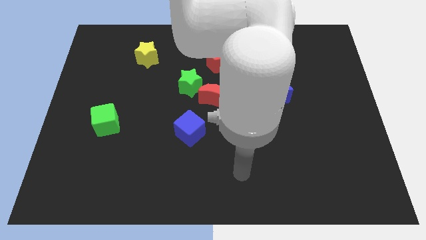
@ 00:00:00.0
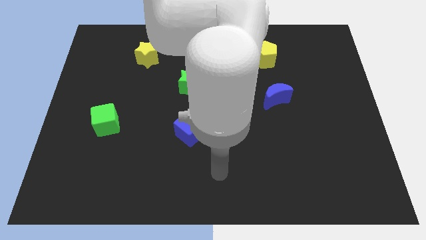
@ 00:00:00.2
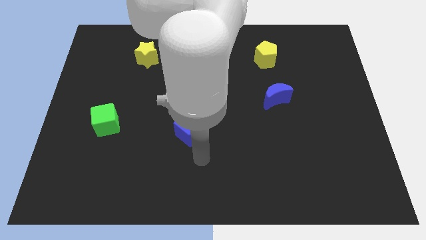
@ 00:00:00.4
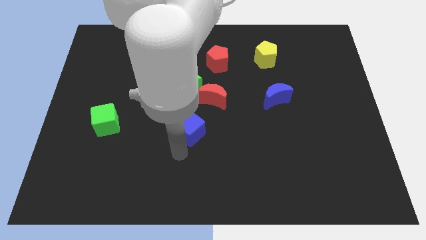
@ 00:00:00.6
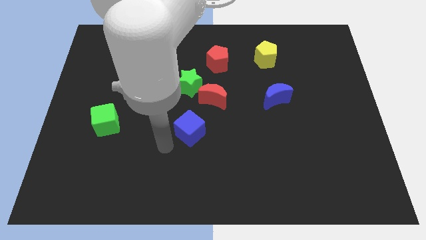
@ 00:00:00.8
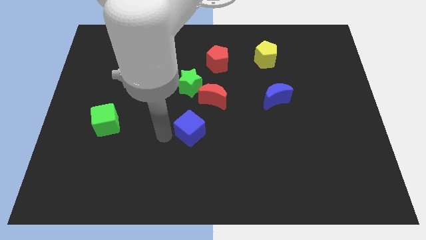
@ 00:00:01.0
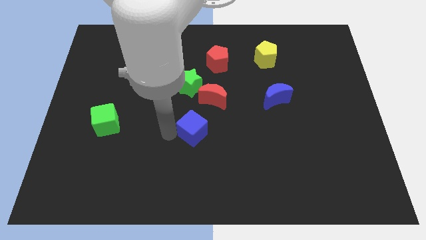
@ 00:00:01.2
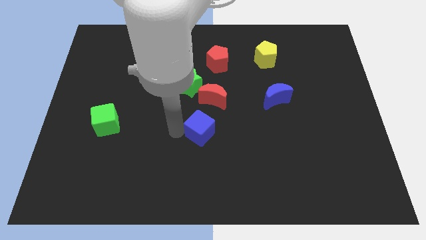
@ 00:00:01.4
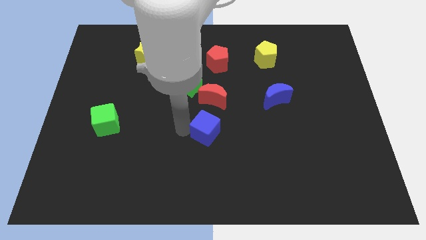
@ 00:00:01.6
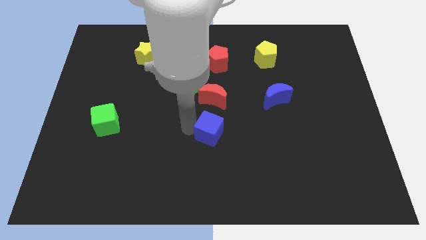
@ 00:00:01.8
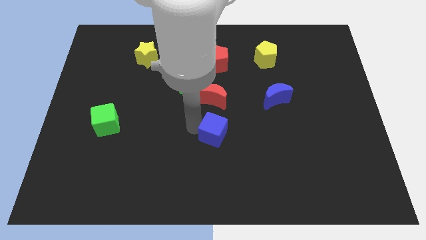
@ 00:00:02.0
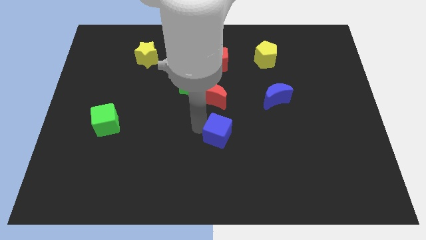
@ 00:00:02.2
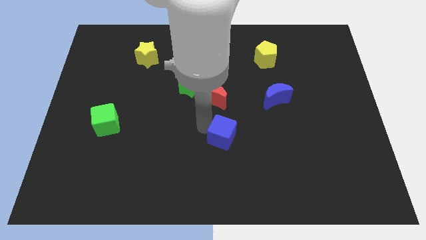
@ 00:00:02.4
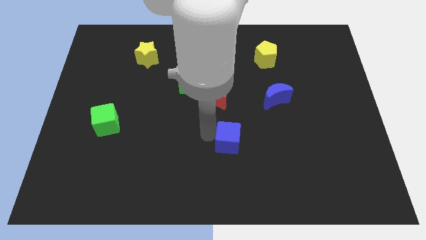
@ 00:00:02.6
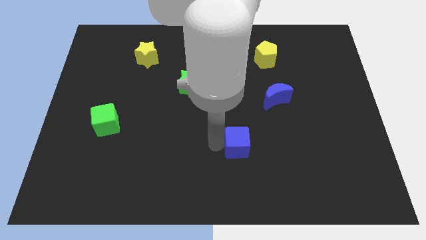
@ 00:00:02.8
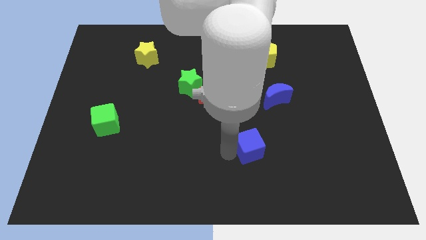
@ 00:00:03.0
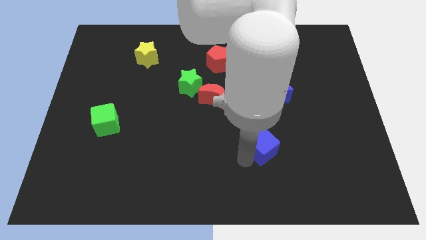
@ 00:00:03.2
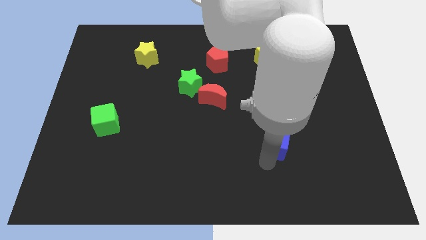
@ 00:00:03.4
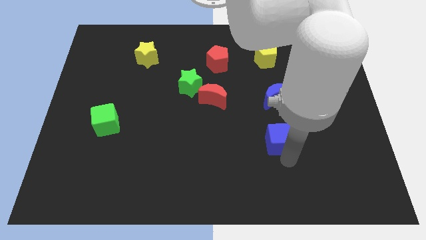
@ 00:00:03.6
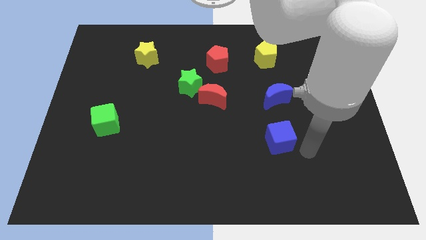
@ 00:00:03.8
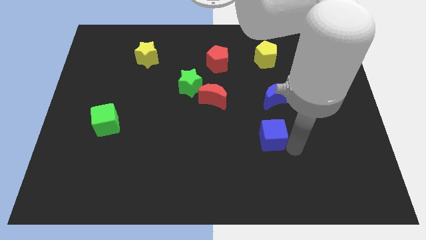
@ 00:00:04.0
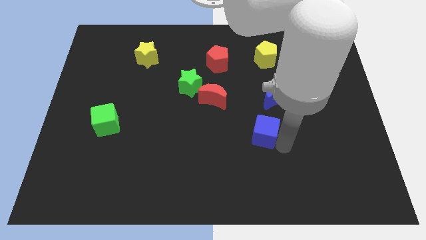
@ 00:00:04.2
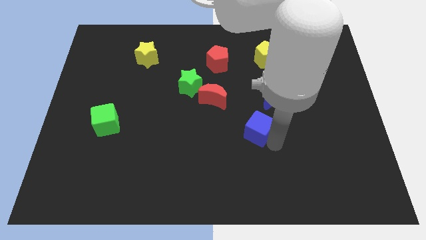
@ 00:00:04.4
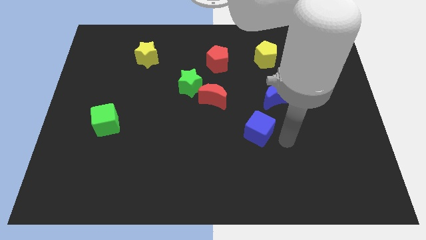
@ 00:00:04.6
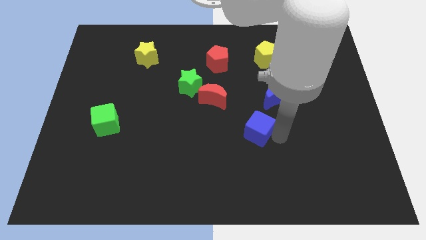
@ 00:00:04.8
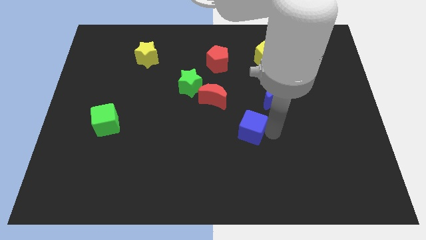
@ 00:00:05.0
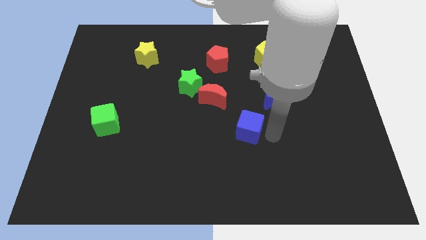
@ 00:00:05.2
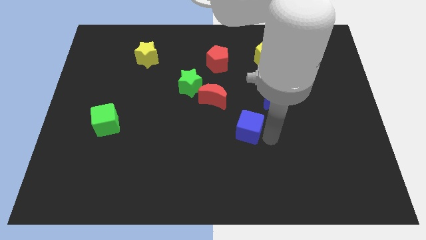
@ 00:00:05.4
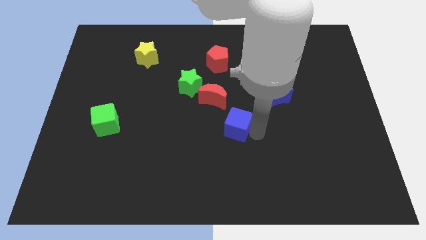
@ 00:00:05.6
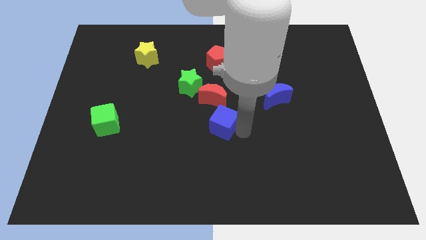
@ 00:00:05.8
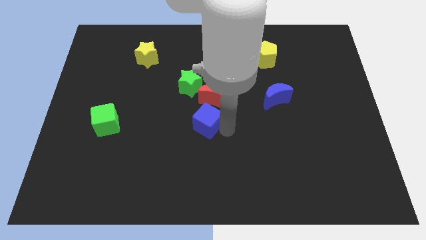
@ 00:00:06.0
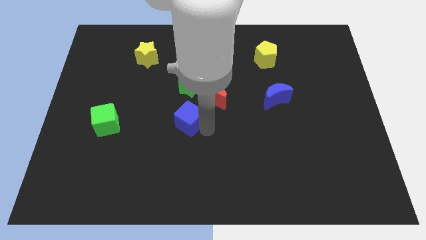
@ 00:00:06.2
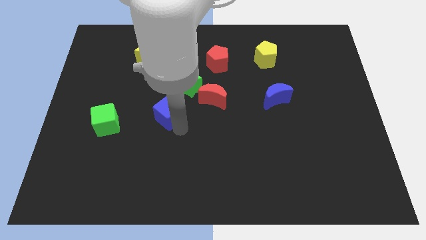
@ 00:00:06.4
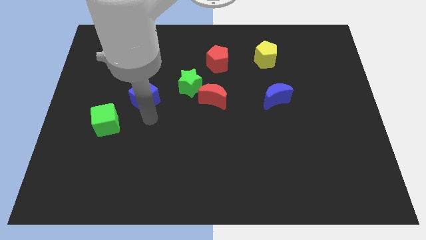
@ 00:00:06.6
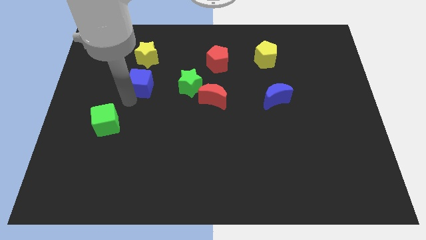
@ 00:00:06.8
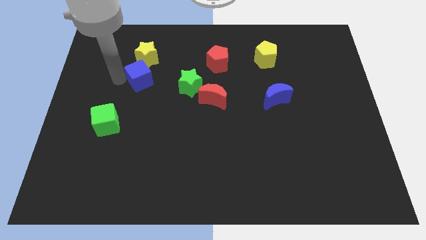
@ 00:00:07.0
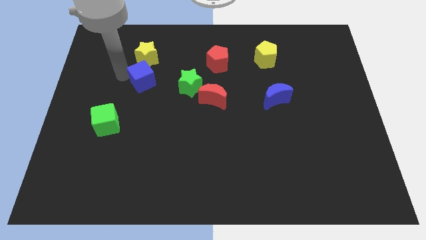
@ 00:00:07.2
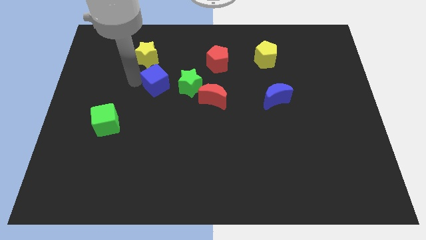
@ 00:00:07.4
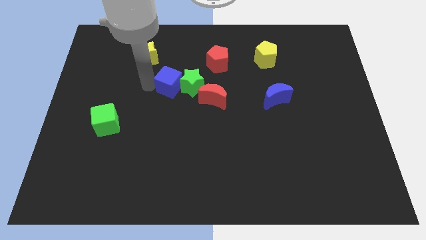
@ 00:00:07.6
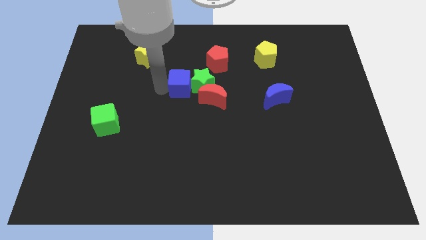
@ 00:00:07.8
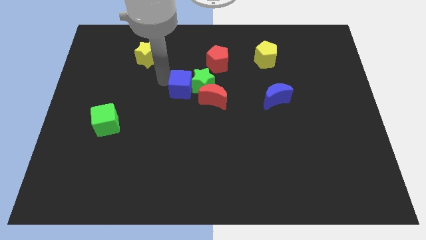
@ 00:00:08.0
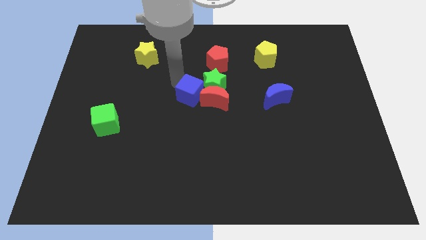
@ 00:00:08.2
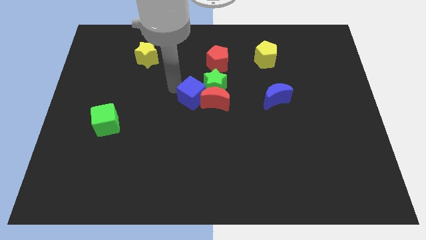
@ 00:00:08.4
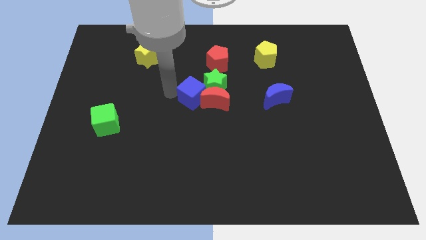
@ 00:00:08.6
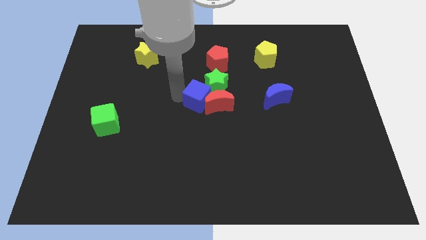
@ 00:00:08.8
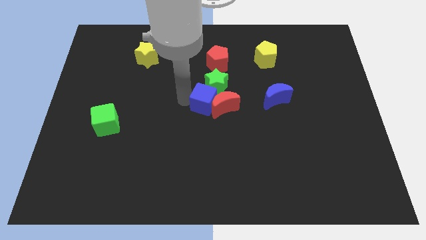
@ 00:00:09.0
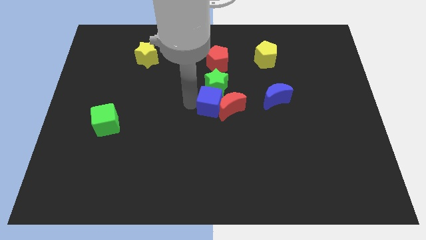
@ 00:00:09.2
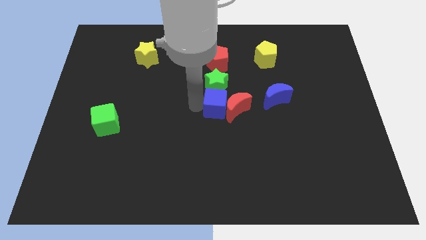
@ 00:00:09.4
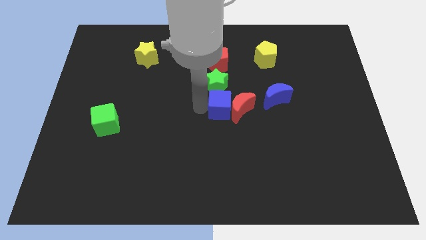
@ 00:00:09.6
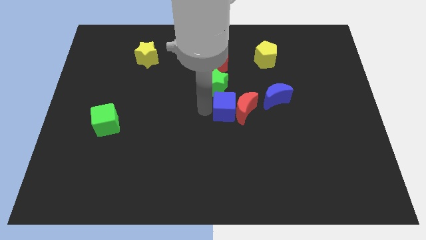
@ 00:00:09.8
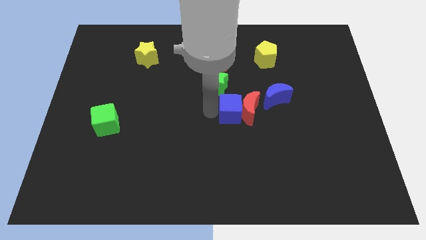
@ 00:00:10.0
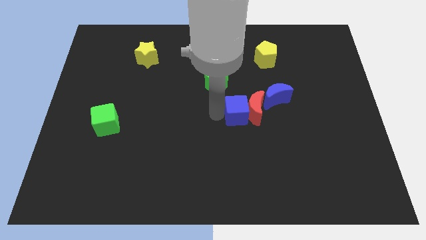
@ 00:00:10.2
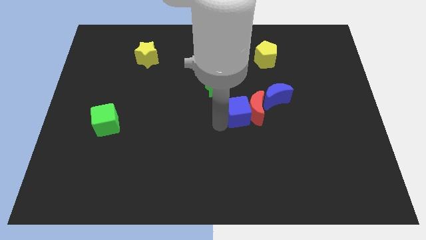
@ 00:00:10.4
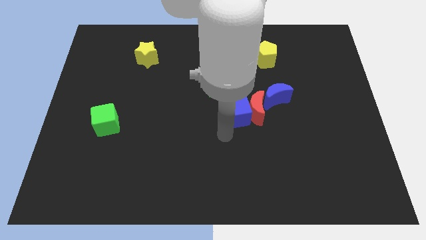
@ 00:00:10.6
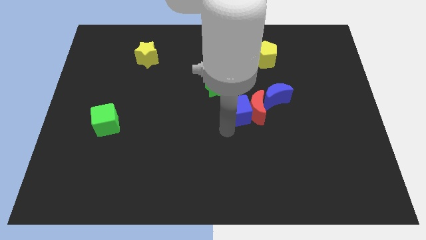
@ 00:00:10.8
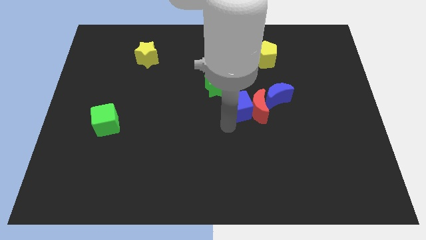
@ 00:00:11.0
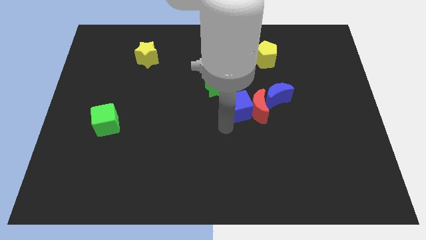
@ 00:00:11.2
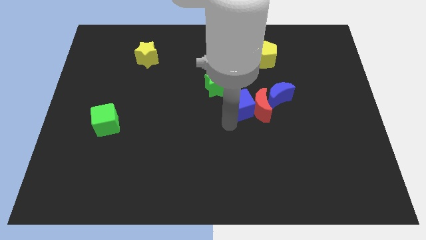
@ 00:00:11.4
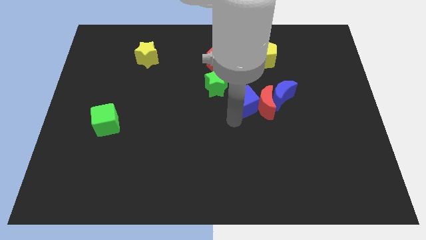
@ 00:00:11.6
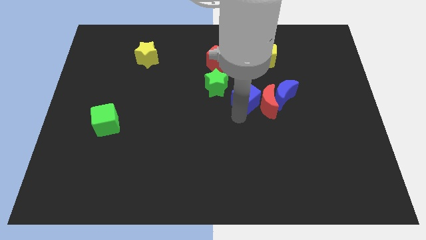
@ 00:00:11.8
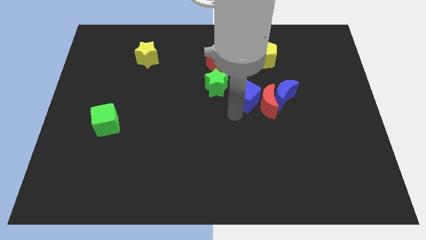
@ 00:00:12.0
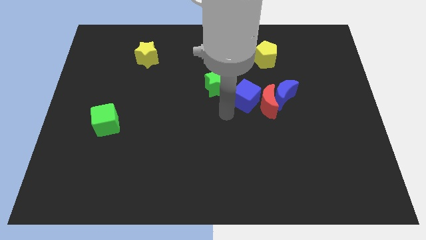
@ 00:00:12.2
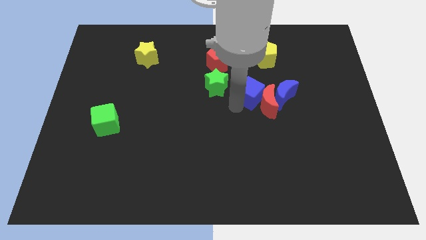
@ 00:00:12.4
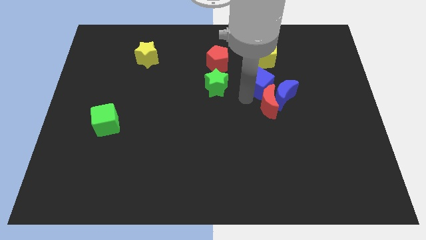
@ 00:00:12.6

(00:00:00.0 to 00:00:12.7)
slide the blue cube diagonally upwards and to the right

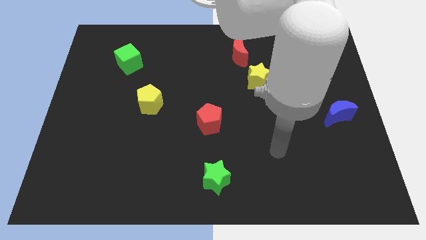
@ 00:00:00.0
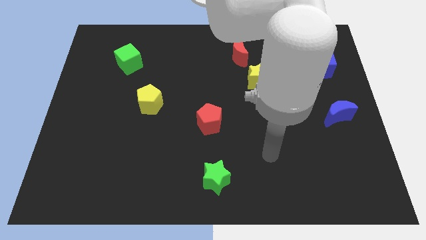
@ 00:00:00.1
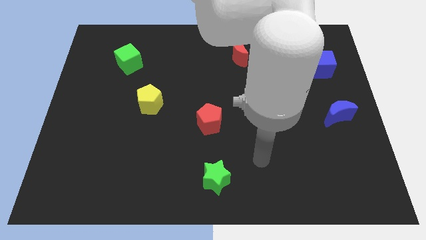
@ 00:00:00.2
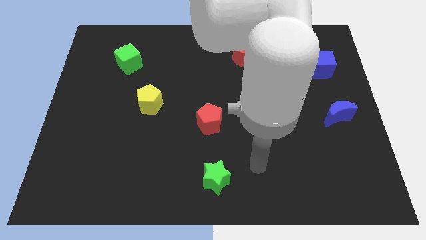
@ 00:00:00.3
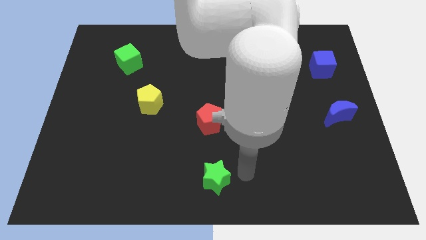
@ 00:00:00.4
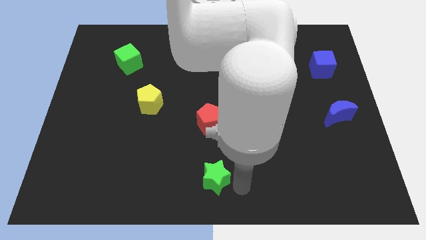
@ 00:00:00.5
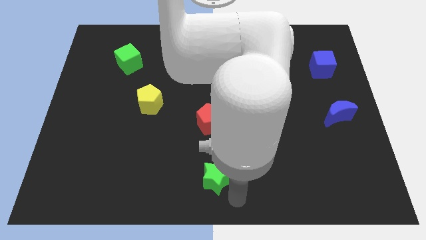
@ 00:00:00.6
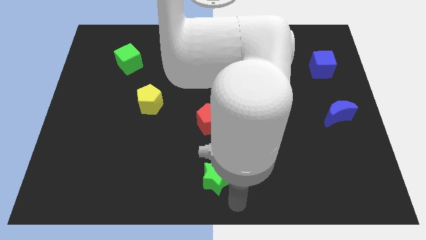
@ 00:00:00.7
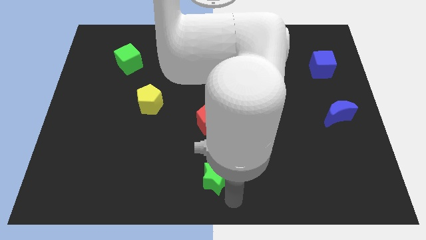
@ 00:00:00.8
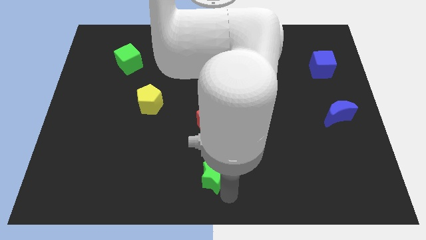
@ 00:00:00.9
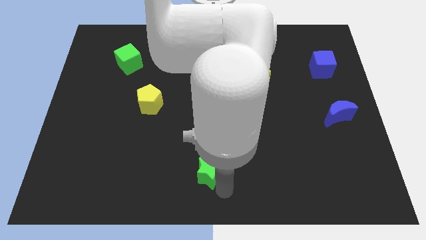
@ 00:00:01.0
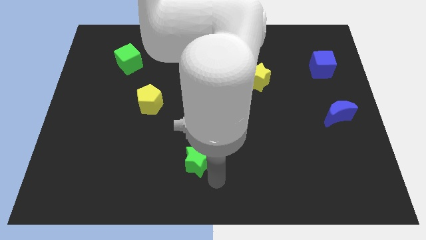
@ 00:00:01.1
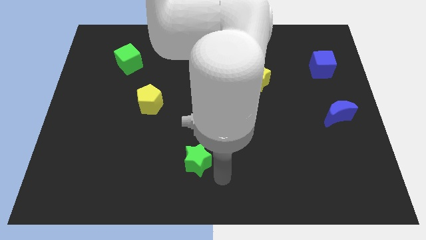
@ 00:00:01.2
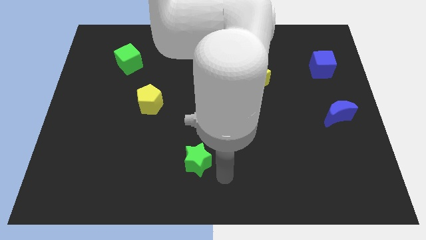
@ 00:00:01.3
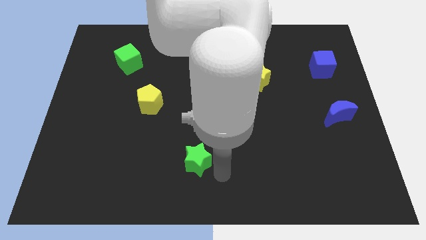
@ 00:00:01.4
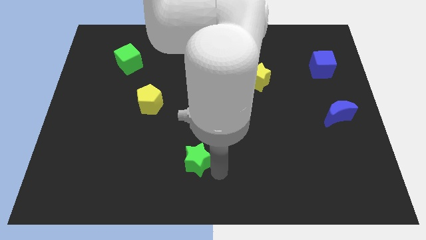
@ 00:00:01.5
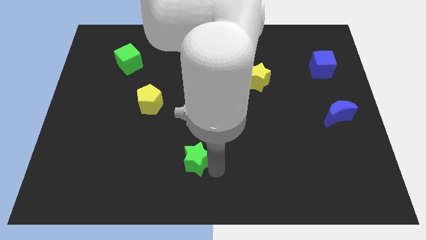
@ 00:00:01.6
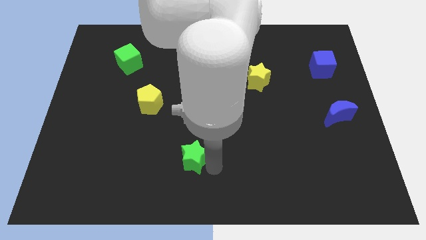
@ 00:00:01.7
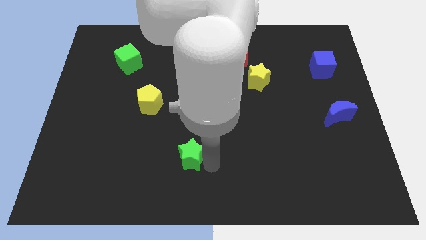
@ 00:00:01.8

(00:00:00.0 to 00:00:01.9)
move the green star diagonally upwards and to the left somewhat
